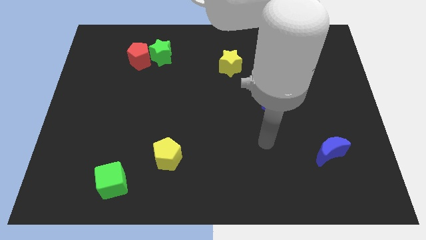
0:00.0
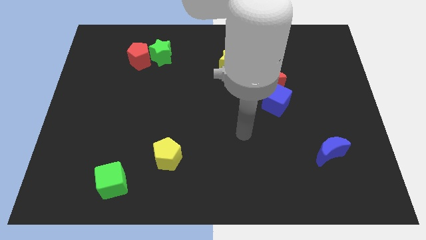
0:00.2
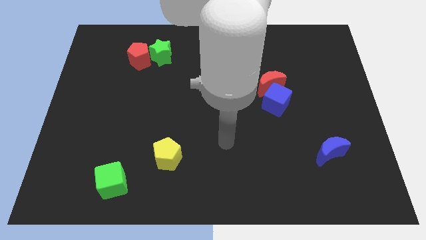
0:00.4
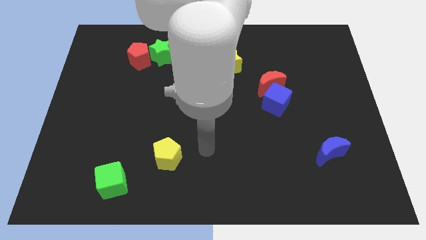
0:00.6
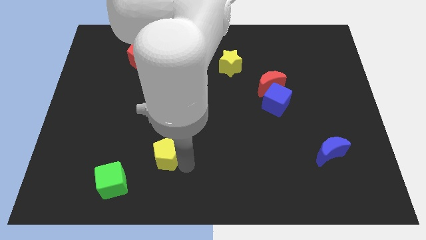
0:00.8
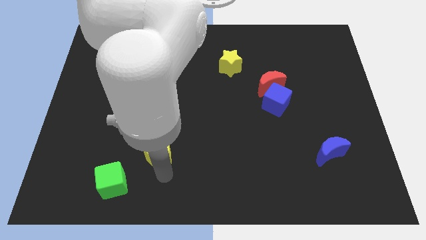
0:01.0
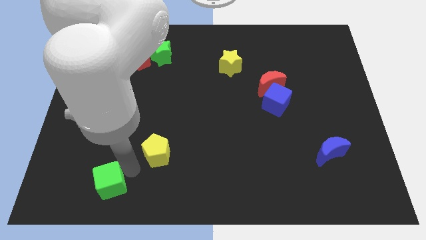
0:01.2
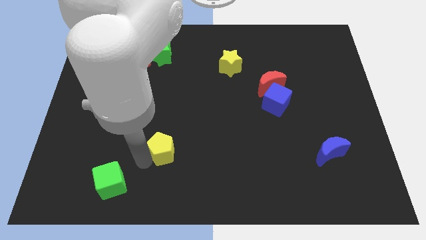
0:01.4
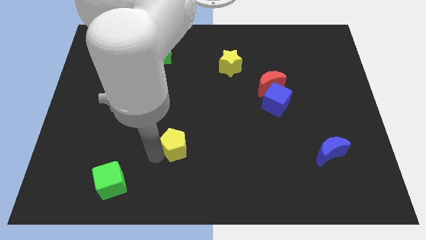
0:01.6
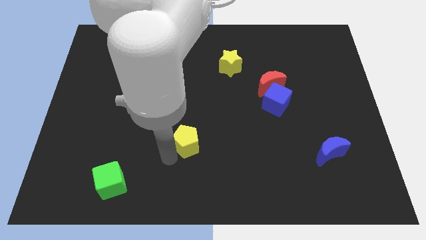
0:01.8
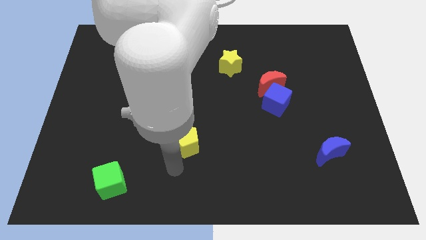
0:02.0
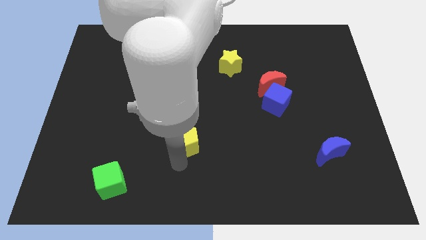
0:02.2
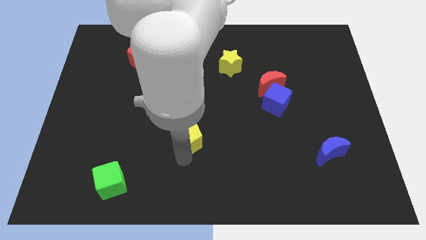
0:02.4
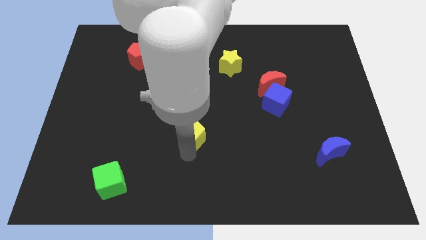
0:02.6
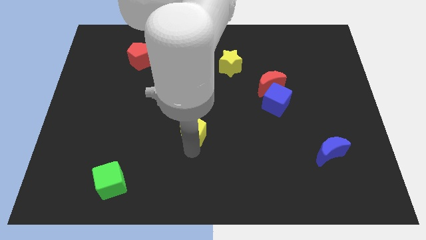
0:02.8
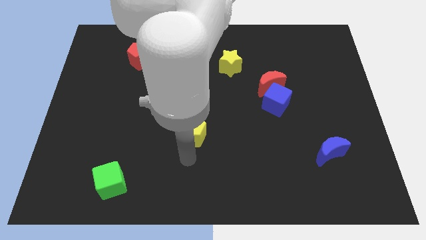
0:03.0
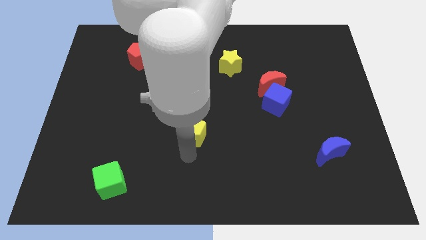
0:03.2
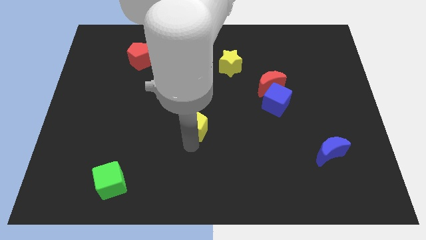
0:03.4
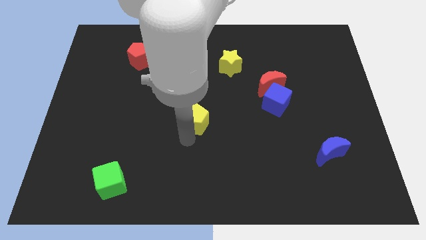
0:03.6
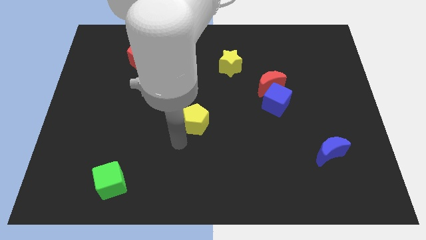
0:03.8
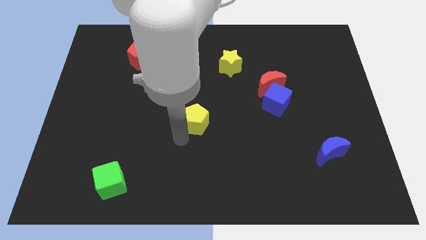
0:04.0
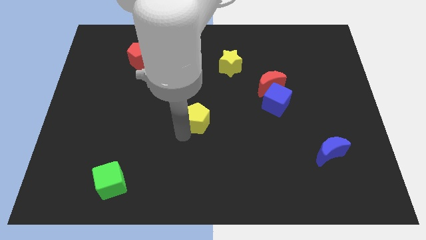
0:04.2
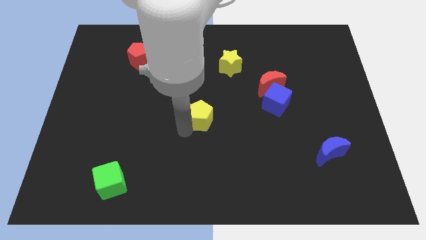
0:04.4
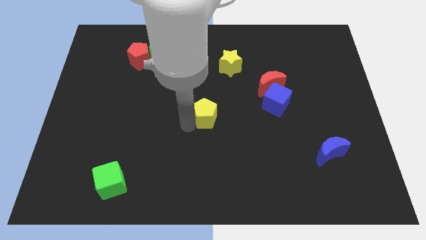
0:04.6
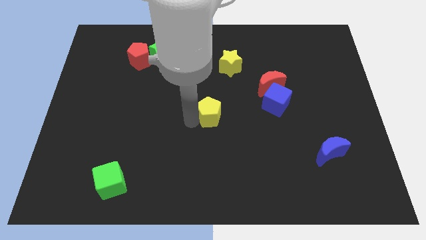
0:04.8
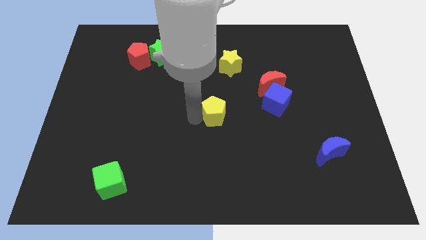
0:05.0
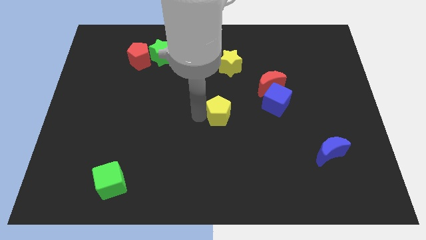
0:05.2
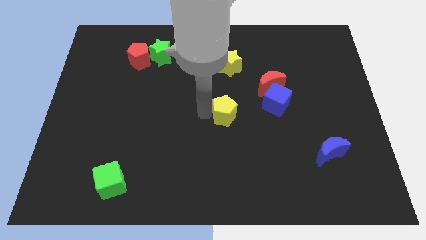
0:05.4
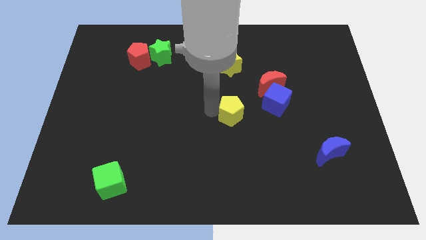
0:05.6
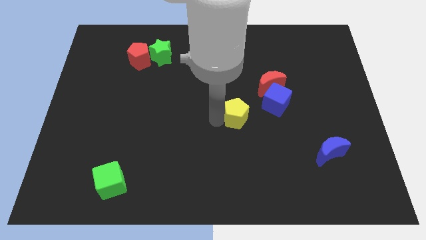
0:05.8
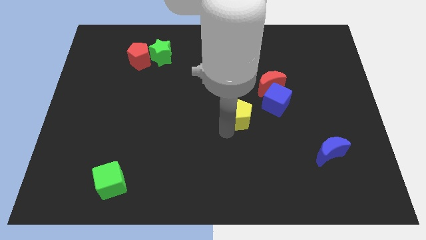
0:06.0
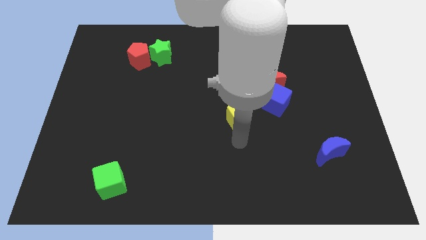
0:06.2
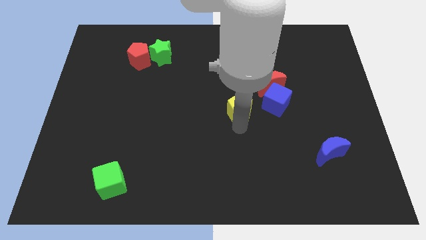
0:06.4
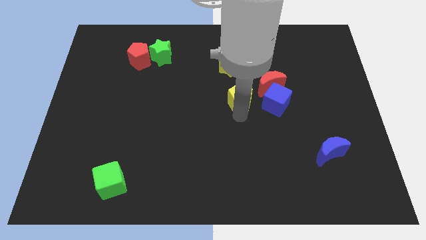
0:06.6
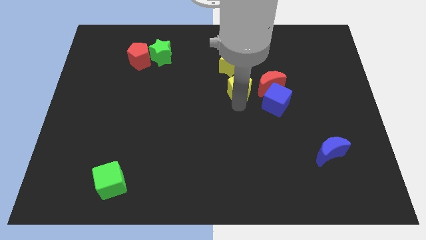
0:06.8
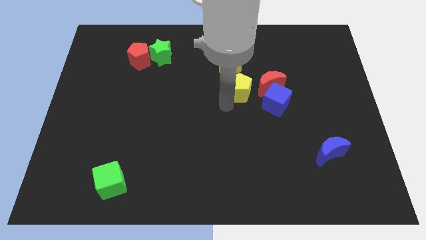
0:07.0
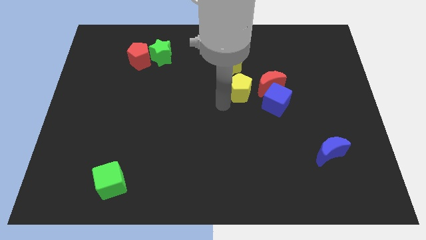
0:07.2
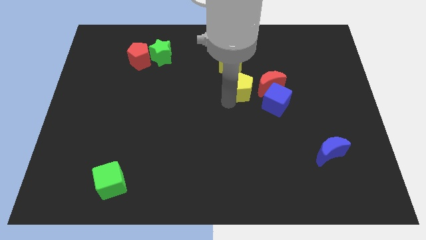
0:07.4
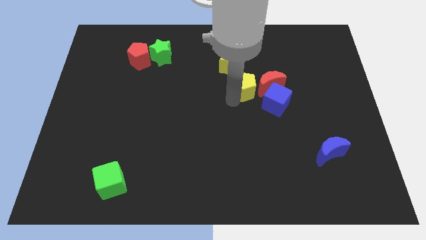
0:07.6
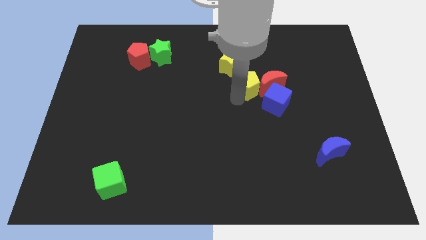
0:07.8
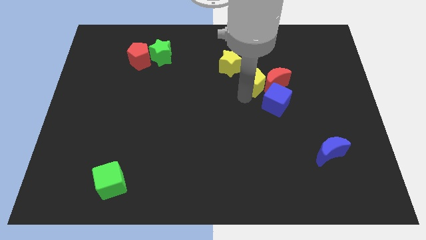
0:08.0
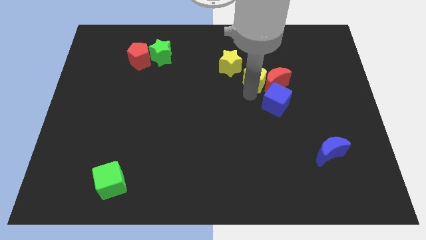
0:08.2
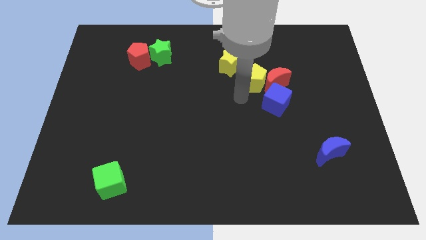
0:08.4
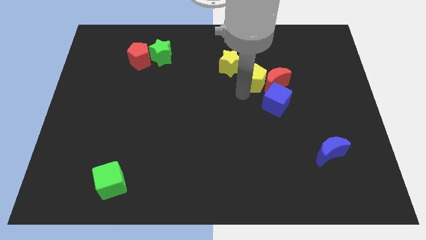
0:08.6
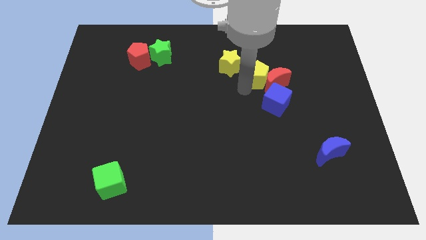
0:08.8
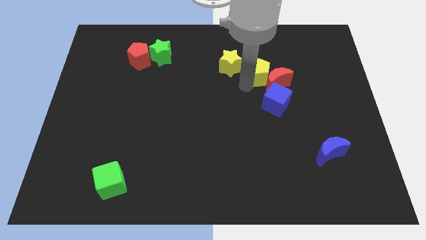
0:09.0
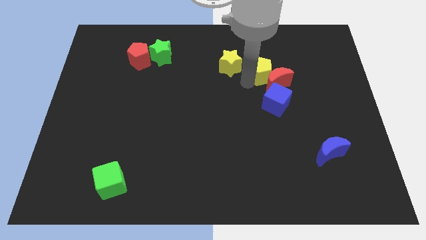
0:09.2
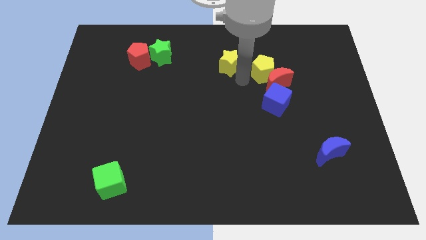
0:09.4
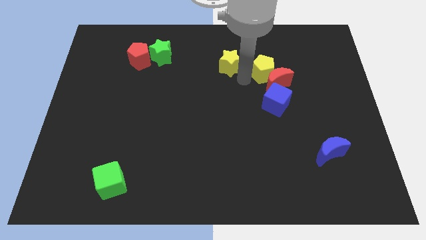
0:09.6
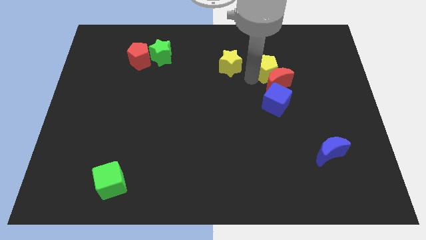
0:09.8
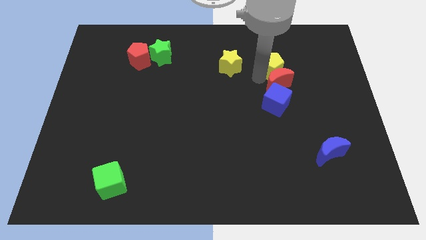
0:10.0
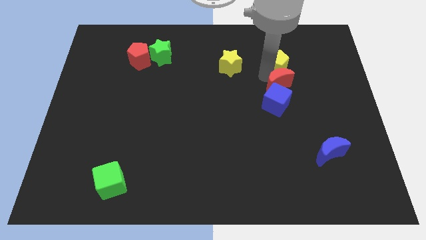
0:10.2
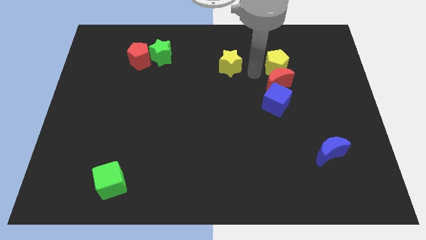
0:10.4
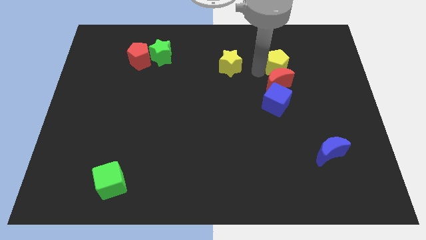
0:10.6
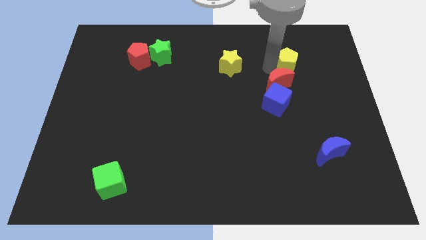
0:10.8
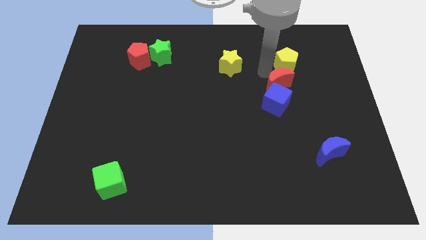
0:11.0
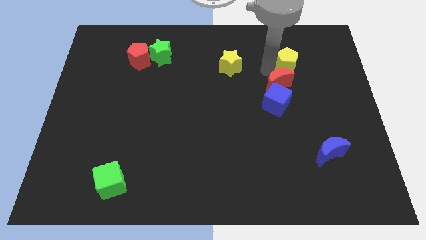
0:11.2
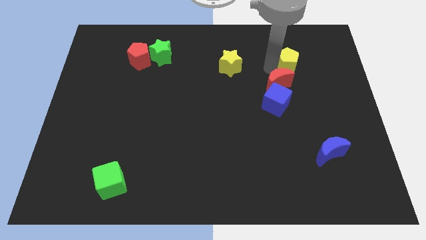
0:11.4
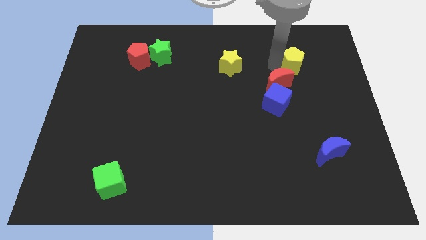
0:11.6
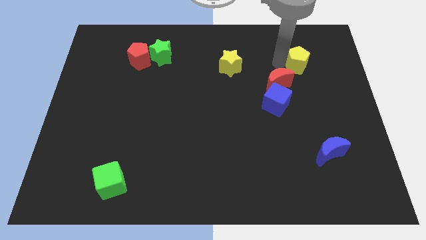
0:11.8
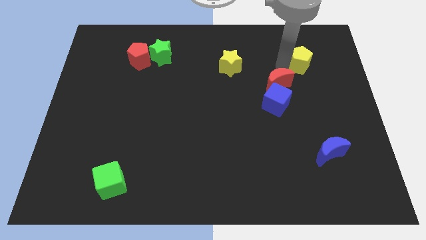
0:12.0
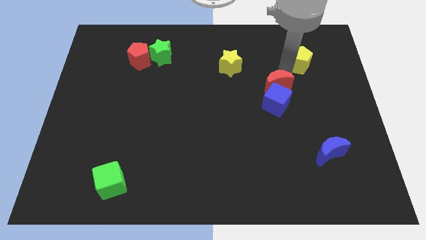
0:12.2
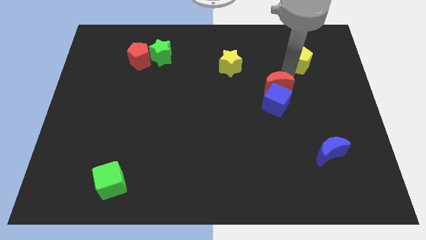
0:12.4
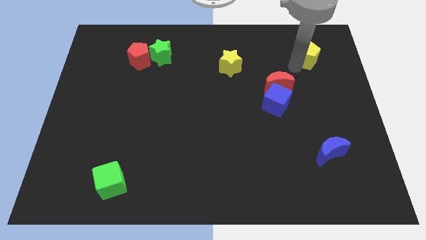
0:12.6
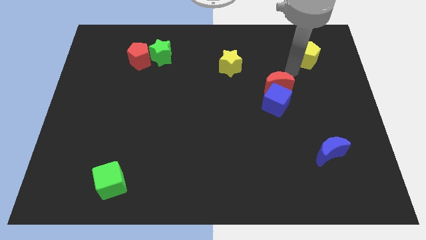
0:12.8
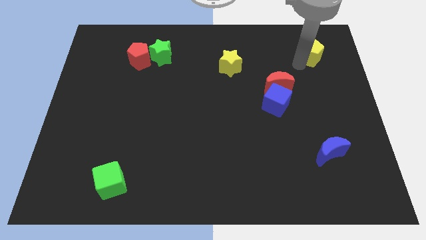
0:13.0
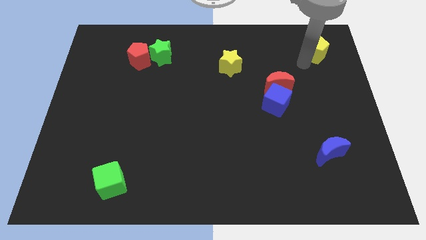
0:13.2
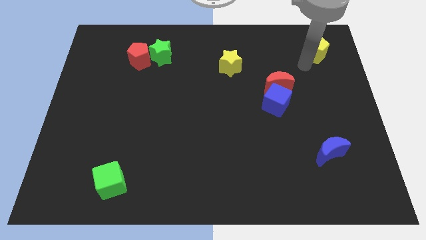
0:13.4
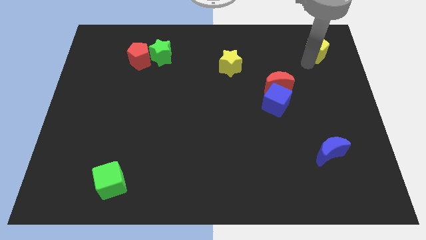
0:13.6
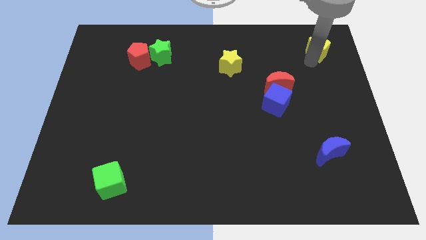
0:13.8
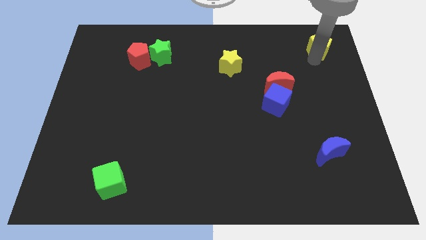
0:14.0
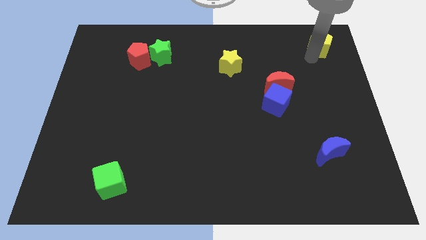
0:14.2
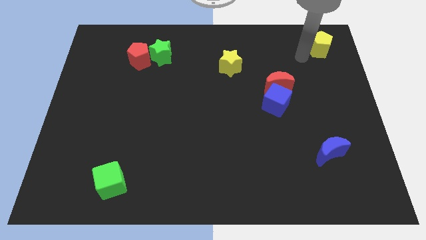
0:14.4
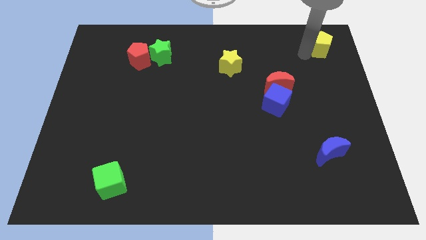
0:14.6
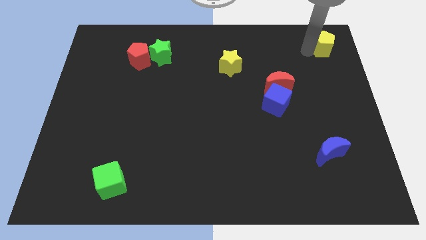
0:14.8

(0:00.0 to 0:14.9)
move the yellow pentagon to the top right
